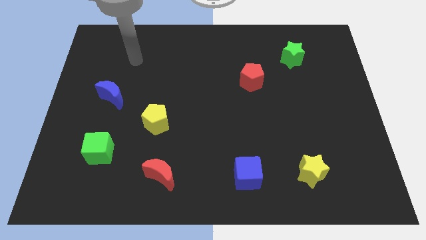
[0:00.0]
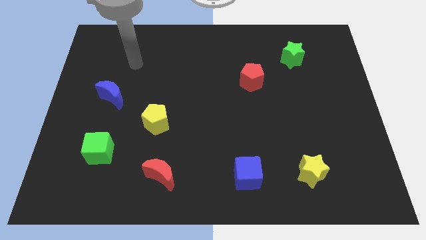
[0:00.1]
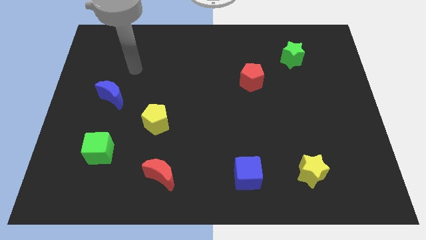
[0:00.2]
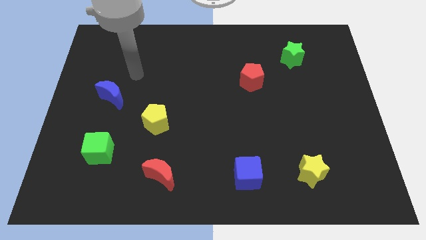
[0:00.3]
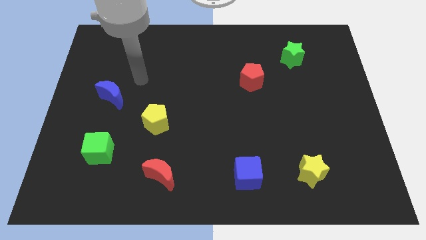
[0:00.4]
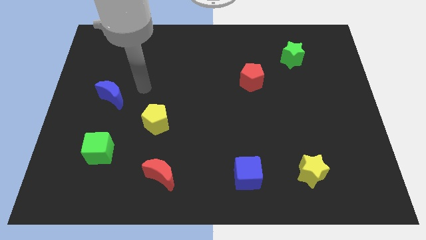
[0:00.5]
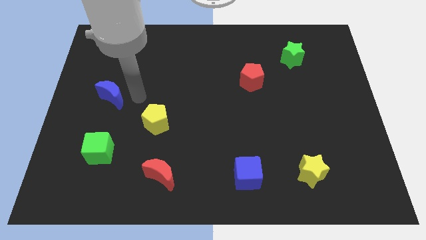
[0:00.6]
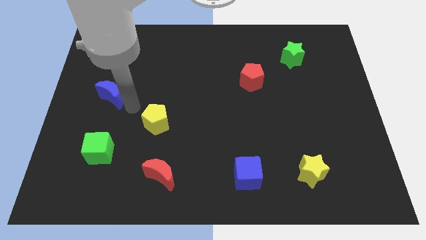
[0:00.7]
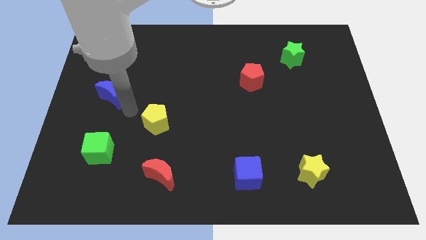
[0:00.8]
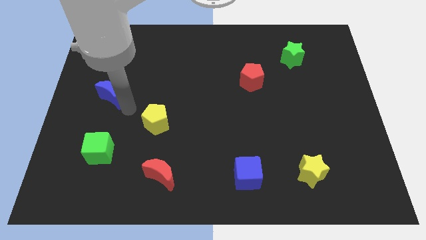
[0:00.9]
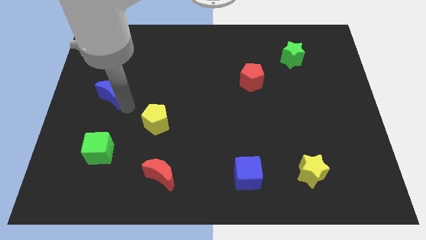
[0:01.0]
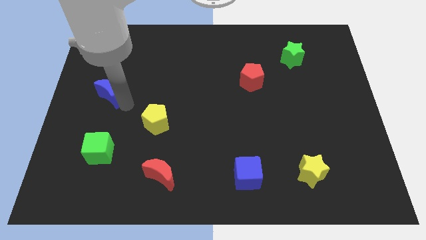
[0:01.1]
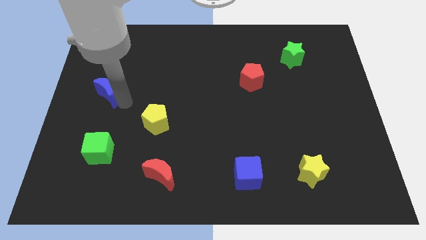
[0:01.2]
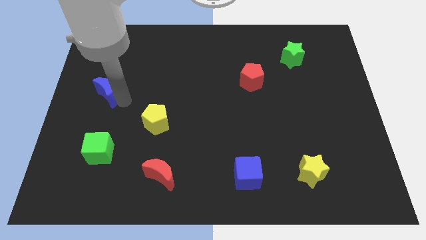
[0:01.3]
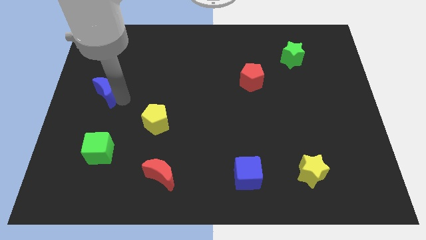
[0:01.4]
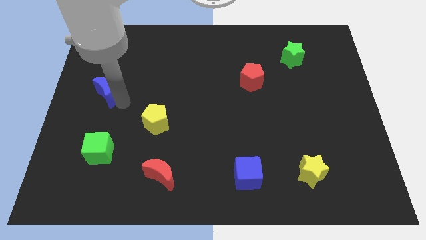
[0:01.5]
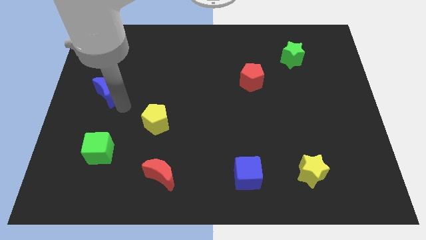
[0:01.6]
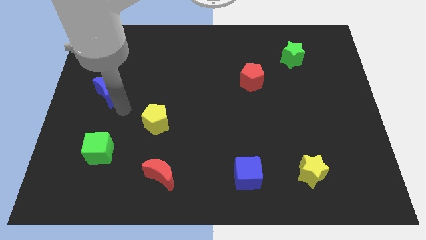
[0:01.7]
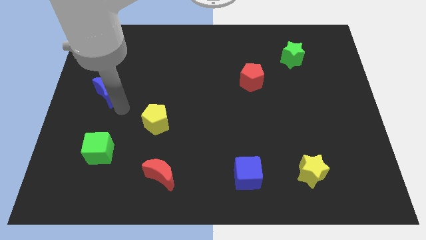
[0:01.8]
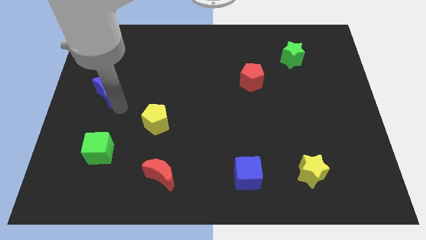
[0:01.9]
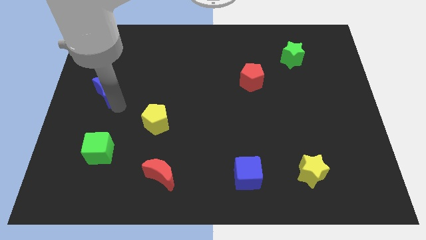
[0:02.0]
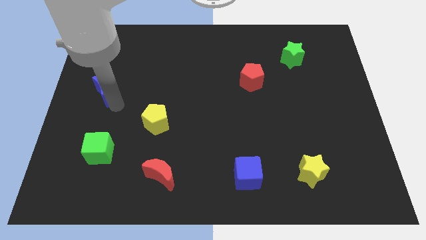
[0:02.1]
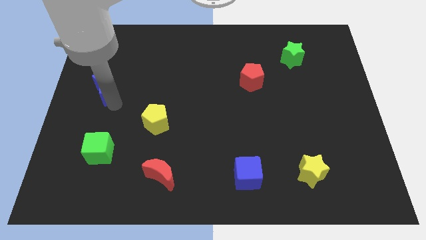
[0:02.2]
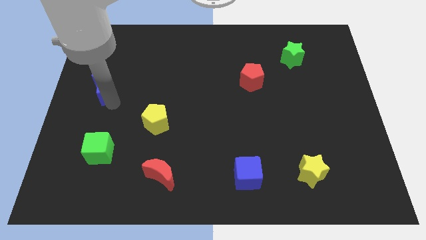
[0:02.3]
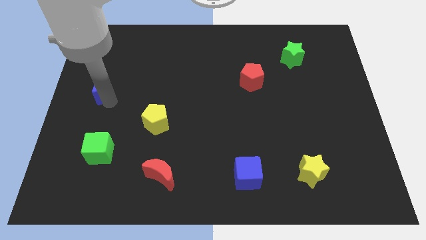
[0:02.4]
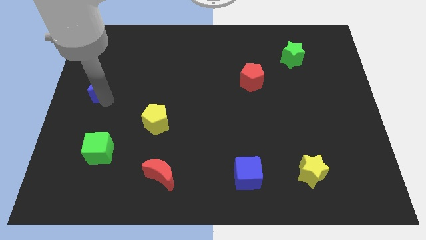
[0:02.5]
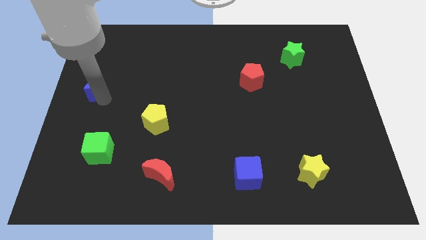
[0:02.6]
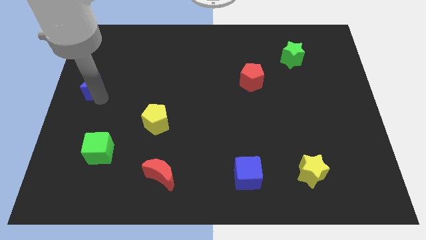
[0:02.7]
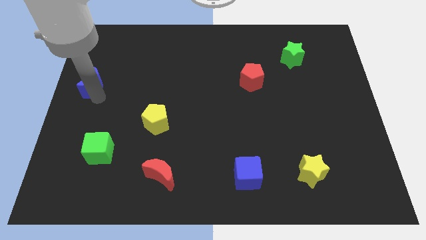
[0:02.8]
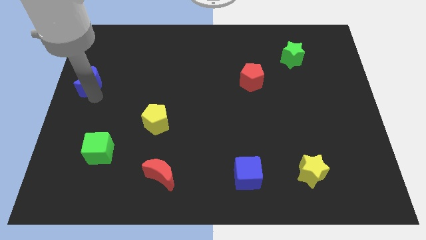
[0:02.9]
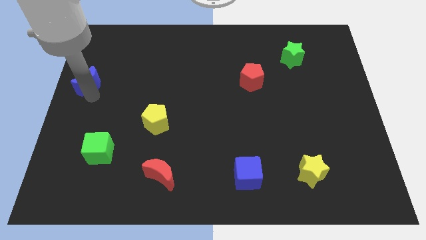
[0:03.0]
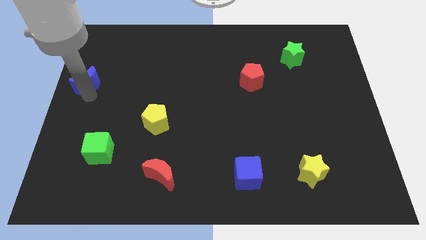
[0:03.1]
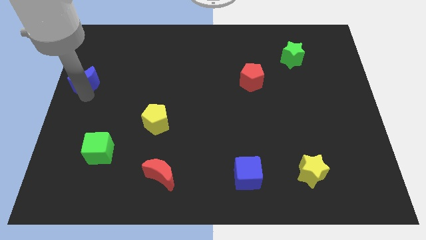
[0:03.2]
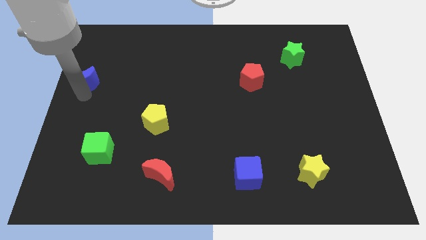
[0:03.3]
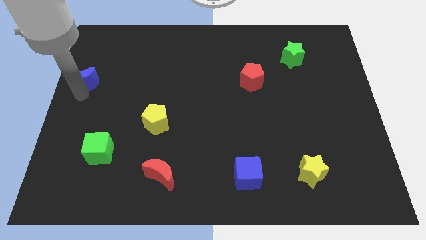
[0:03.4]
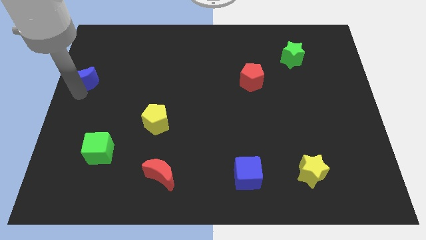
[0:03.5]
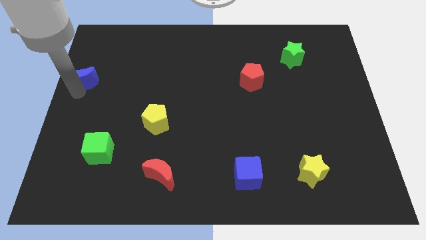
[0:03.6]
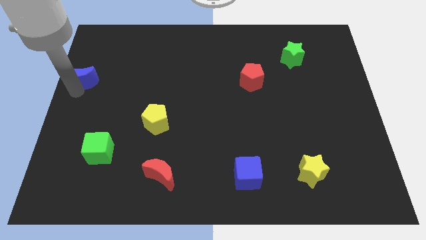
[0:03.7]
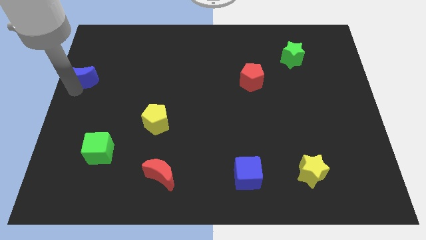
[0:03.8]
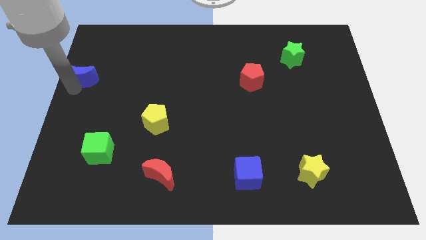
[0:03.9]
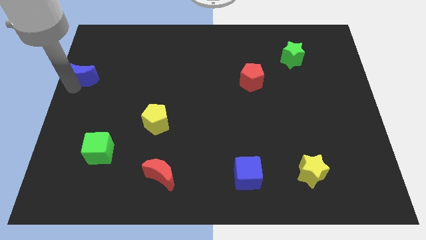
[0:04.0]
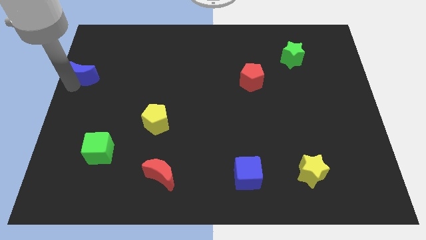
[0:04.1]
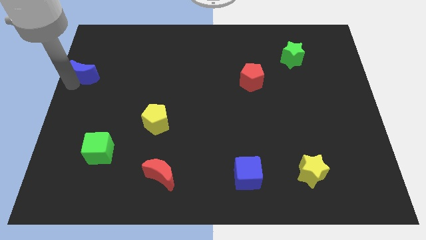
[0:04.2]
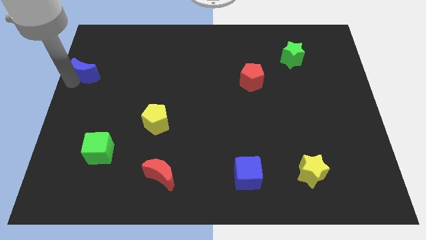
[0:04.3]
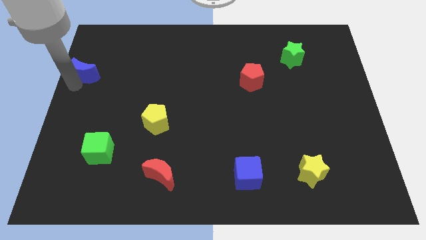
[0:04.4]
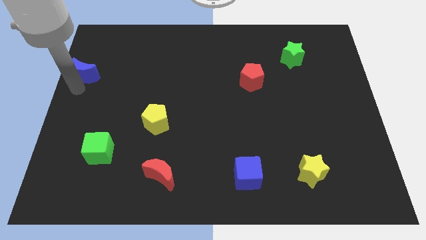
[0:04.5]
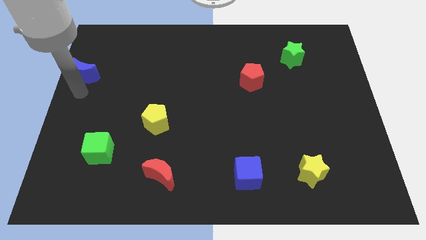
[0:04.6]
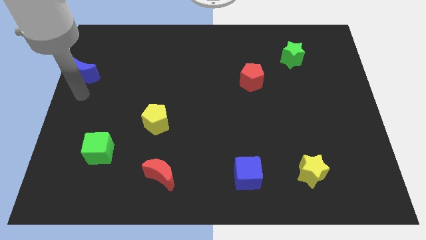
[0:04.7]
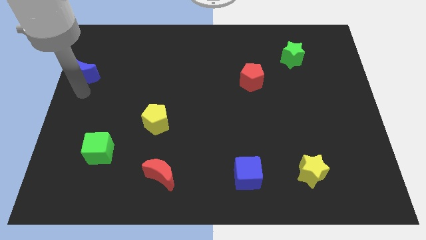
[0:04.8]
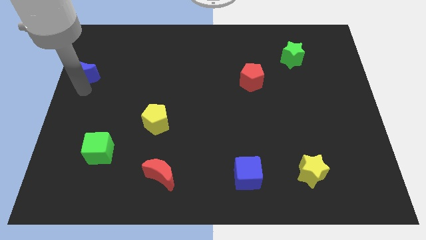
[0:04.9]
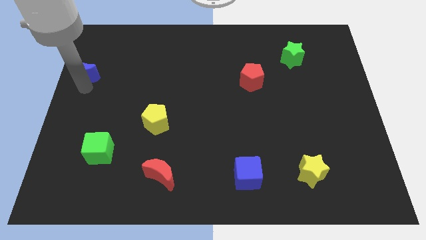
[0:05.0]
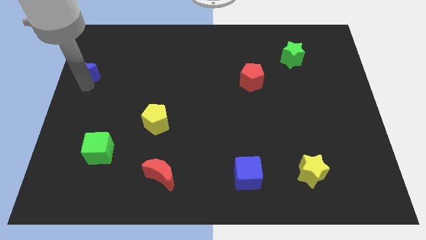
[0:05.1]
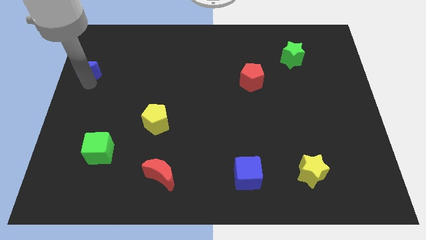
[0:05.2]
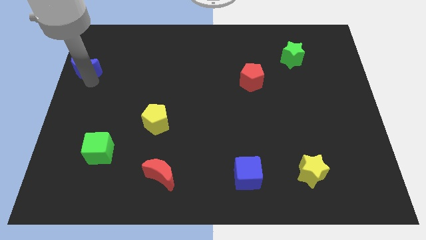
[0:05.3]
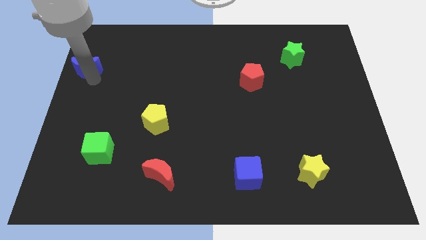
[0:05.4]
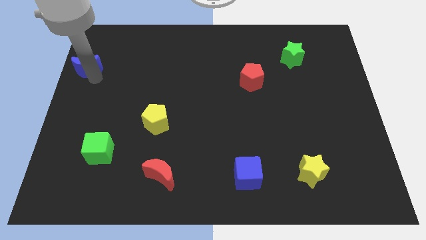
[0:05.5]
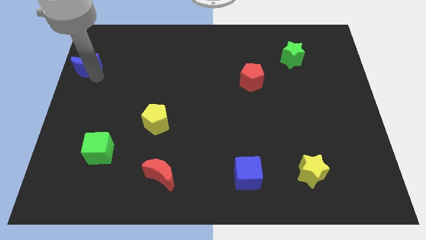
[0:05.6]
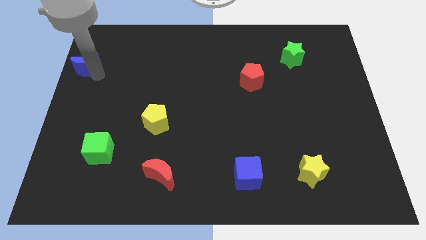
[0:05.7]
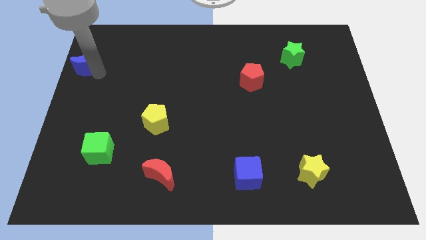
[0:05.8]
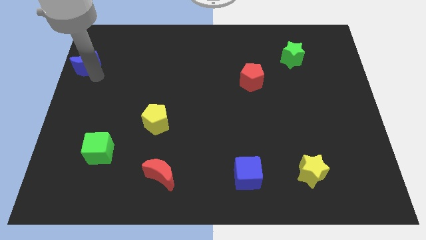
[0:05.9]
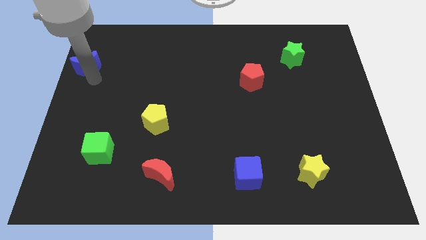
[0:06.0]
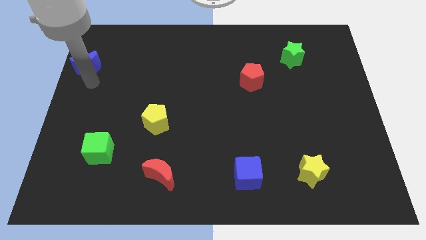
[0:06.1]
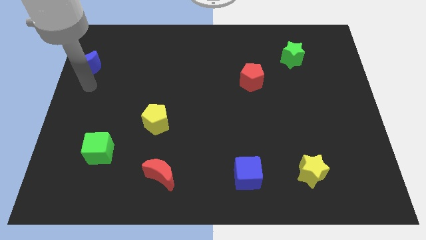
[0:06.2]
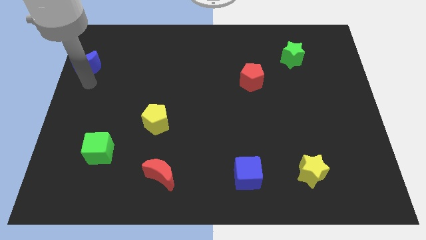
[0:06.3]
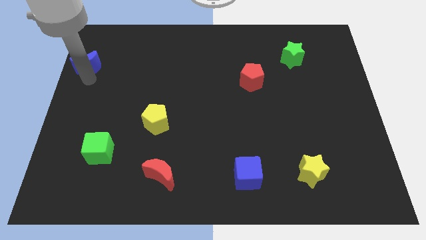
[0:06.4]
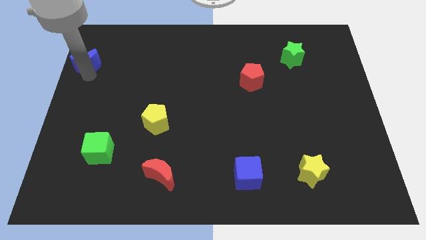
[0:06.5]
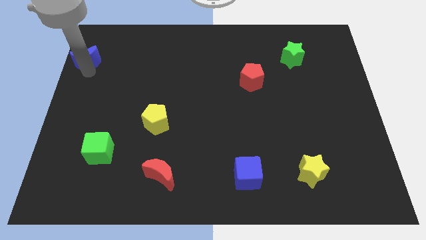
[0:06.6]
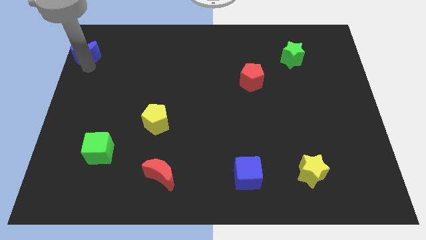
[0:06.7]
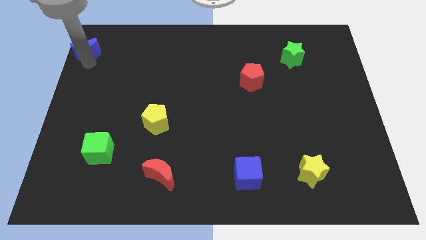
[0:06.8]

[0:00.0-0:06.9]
put the blue moon to the top left of the board
